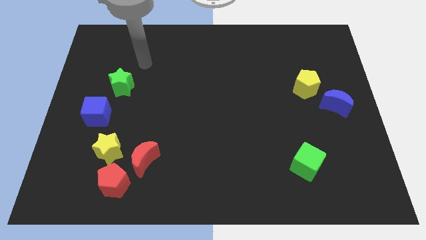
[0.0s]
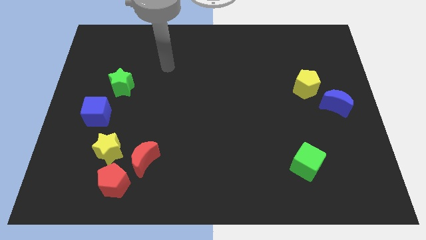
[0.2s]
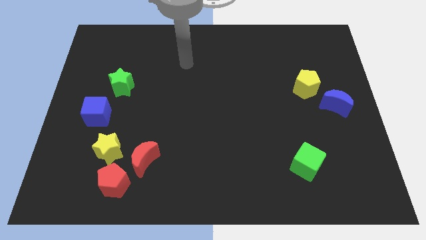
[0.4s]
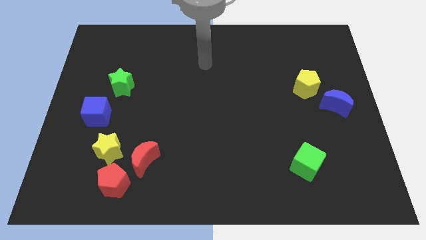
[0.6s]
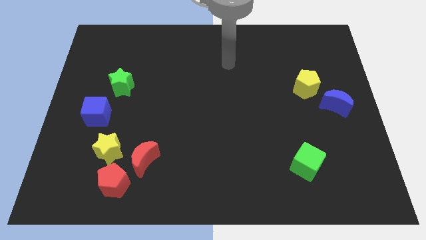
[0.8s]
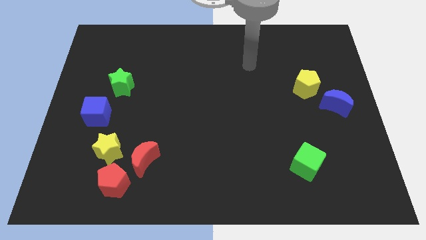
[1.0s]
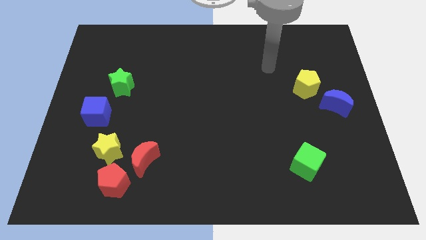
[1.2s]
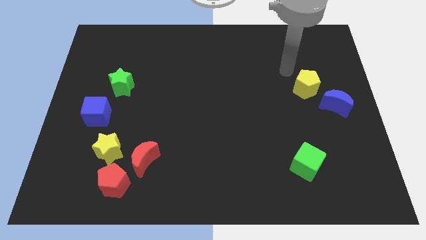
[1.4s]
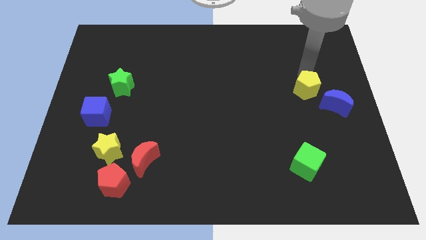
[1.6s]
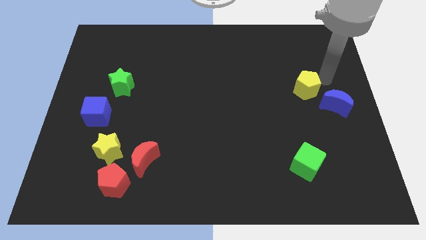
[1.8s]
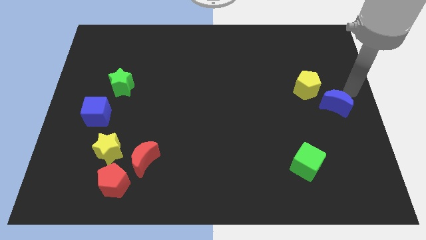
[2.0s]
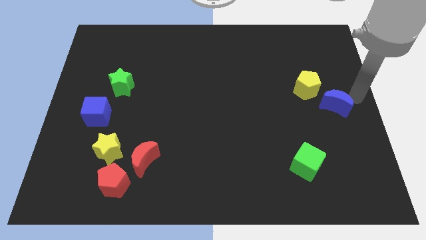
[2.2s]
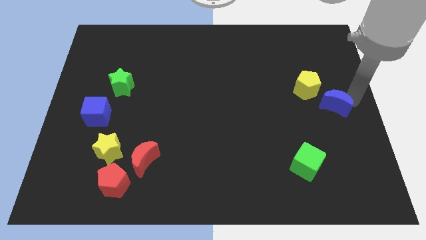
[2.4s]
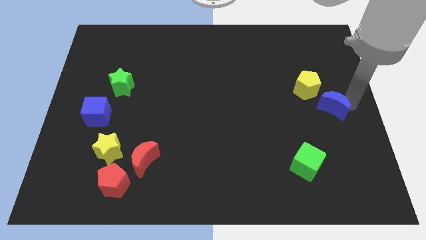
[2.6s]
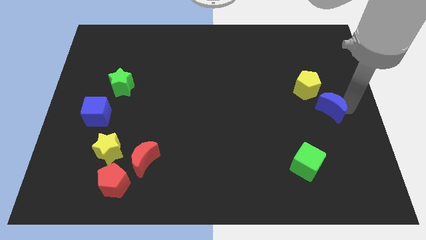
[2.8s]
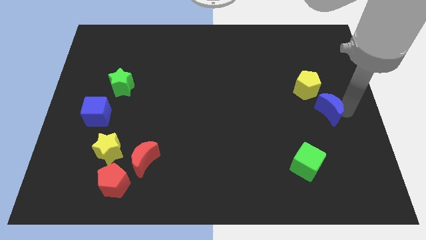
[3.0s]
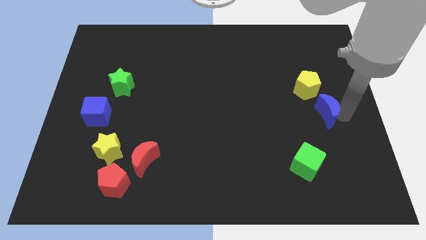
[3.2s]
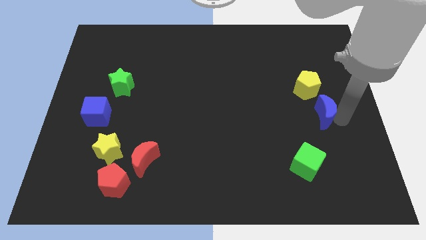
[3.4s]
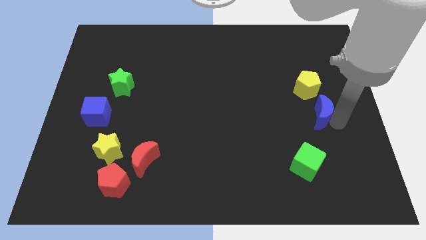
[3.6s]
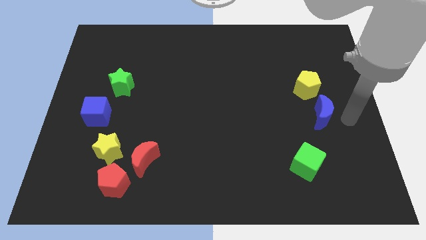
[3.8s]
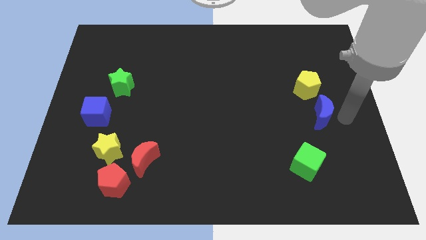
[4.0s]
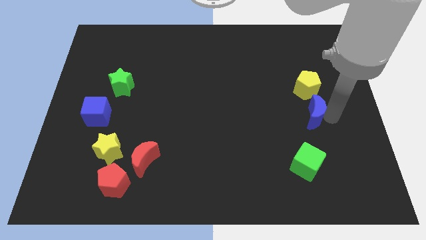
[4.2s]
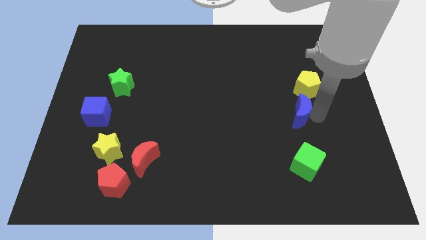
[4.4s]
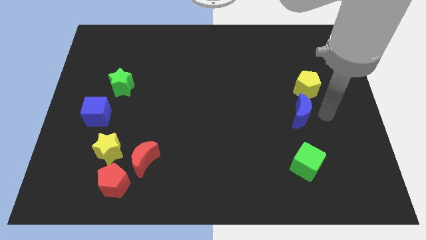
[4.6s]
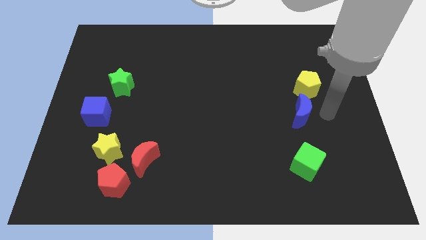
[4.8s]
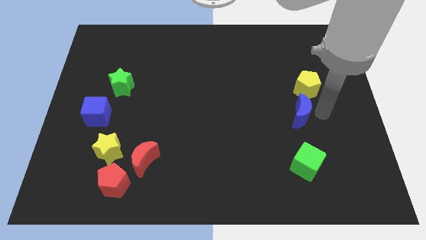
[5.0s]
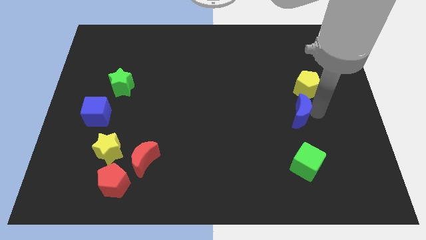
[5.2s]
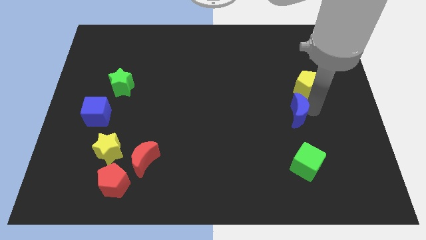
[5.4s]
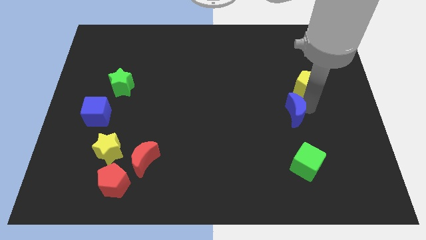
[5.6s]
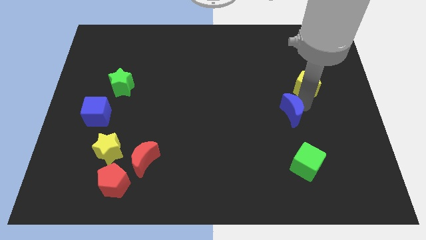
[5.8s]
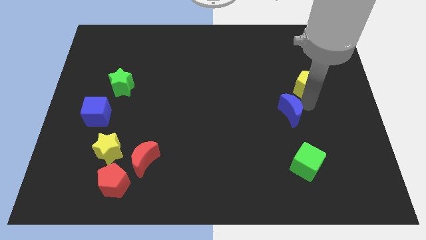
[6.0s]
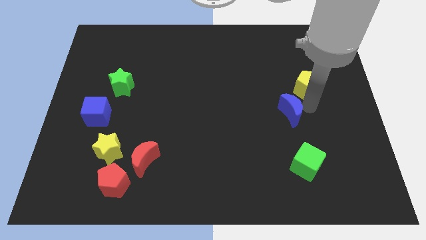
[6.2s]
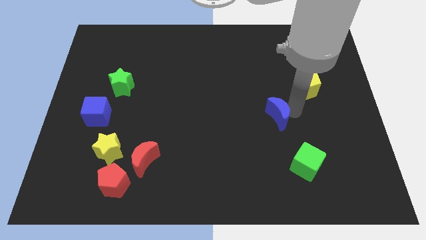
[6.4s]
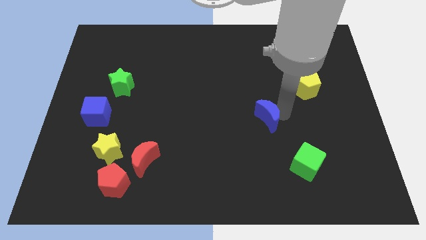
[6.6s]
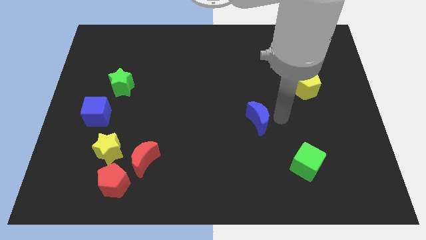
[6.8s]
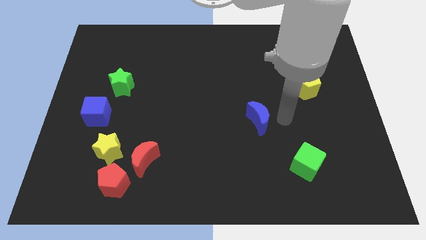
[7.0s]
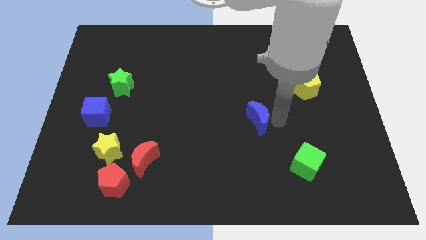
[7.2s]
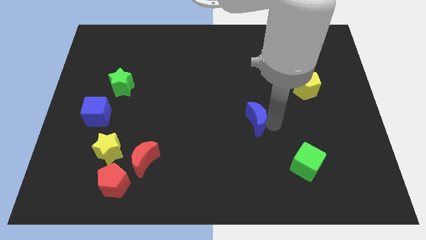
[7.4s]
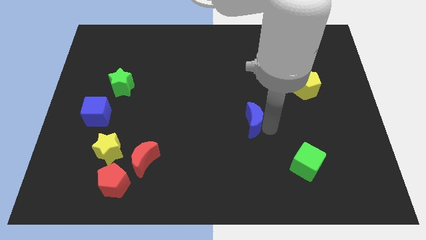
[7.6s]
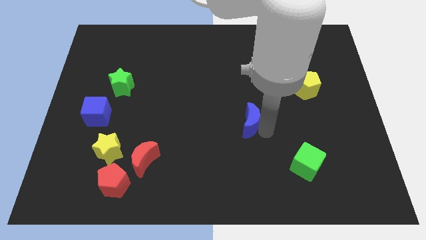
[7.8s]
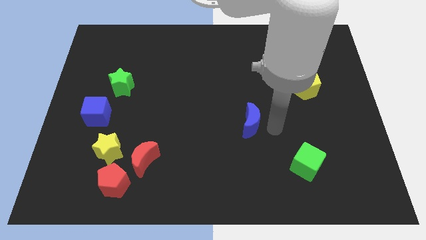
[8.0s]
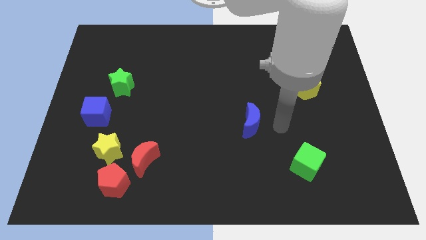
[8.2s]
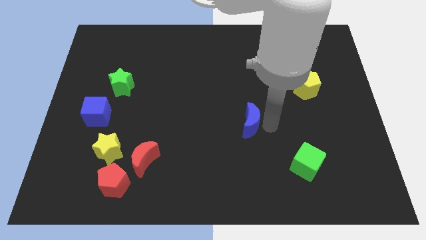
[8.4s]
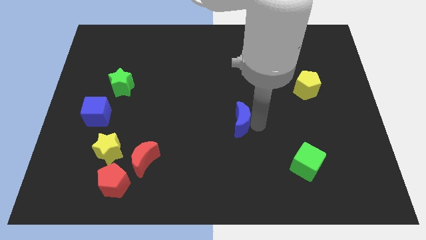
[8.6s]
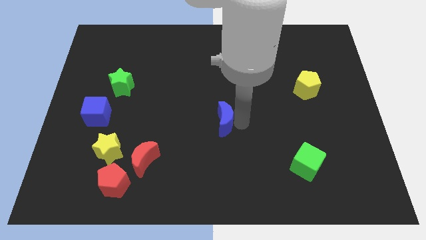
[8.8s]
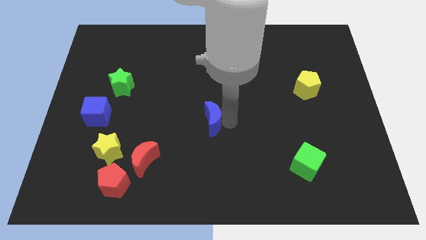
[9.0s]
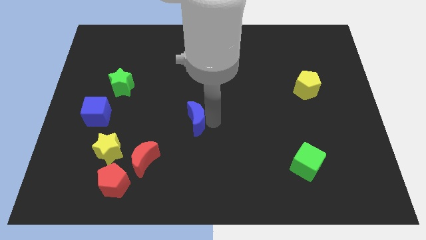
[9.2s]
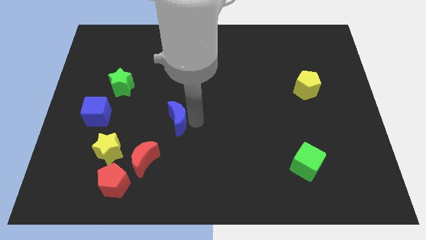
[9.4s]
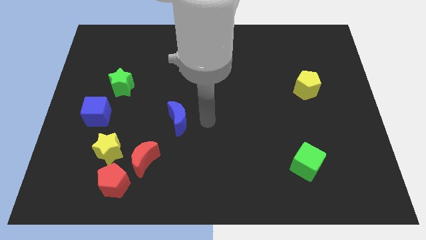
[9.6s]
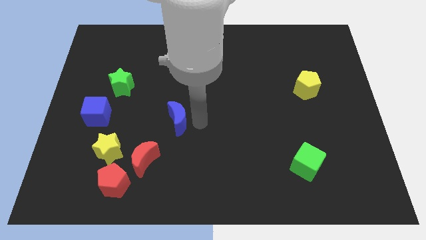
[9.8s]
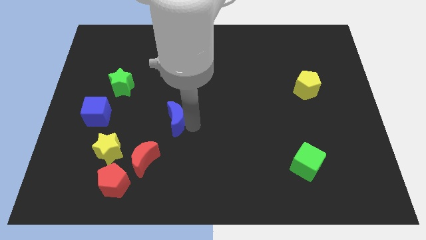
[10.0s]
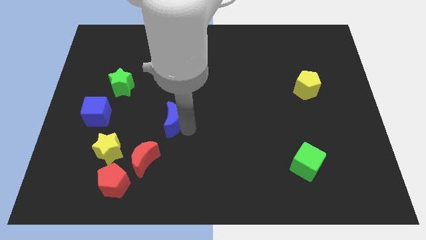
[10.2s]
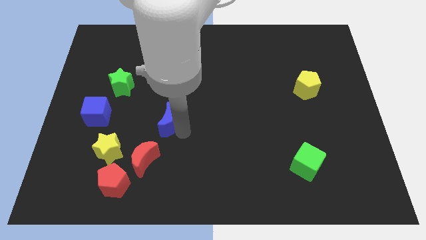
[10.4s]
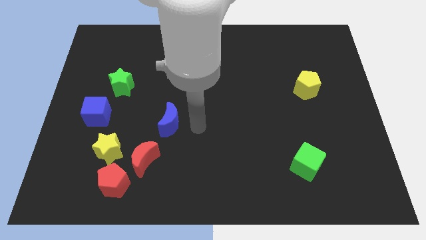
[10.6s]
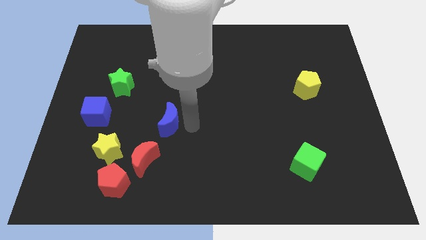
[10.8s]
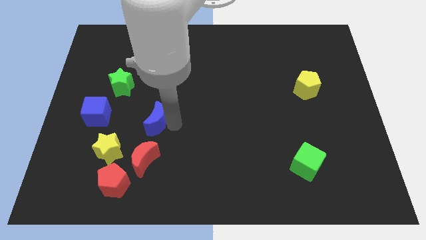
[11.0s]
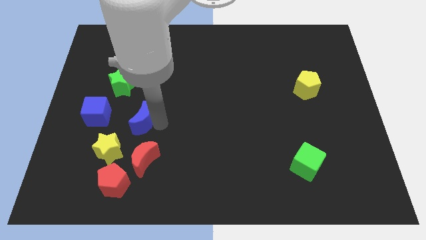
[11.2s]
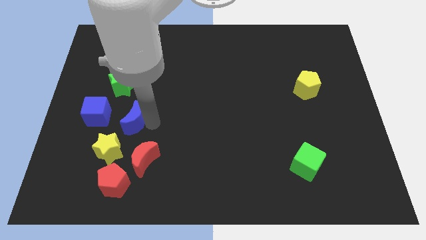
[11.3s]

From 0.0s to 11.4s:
put the blue moon to the bottom of the green star

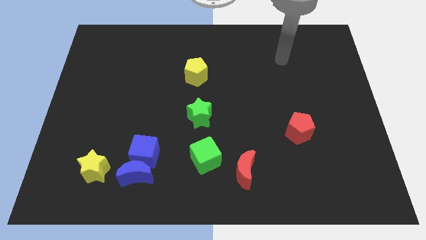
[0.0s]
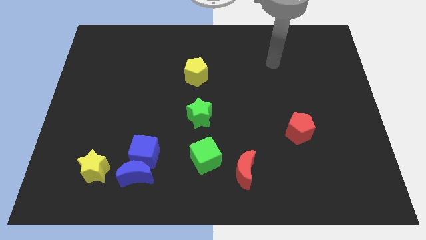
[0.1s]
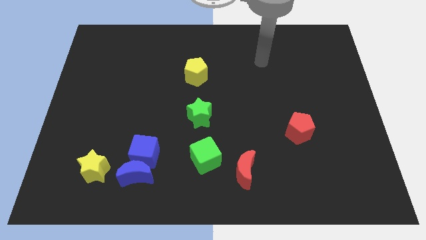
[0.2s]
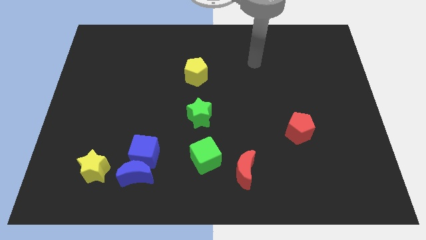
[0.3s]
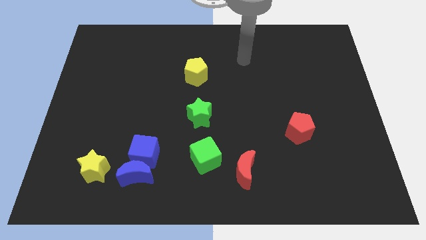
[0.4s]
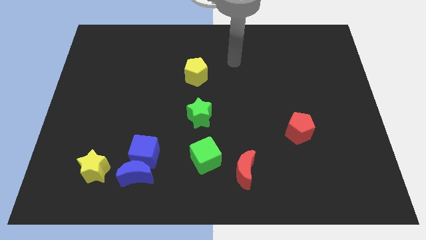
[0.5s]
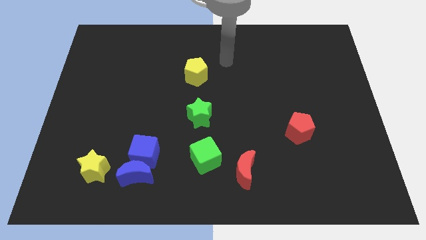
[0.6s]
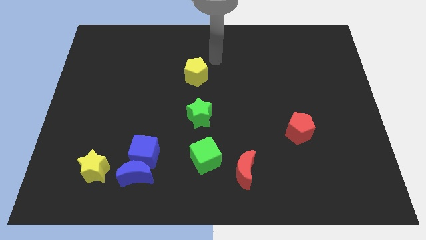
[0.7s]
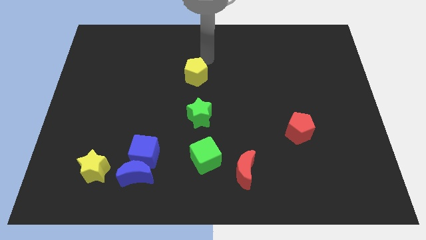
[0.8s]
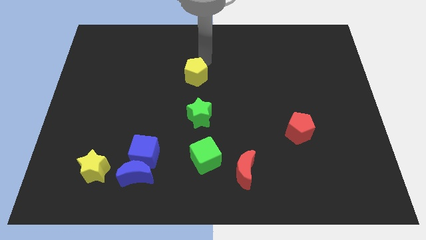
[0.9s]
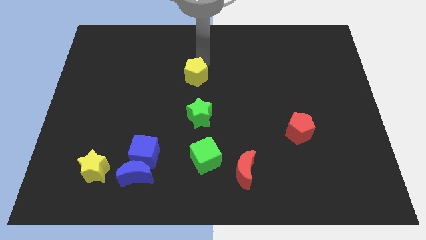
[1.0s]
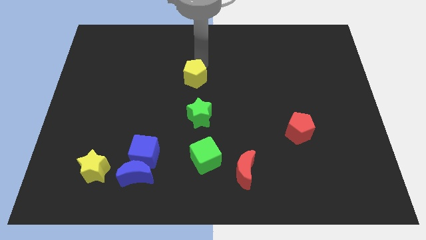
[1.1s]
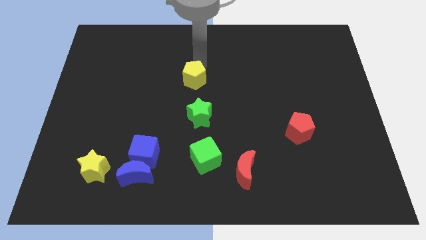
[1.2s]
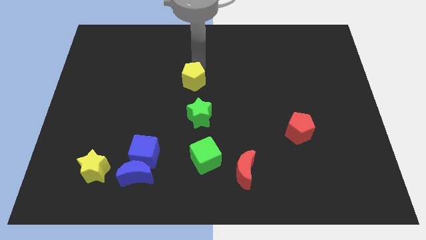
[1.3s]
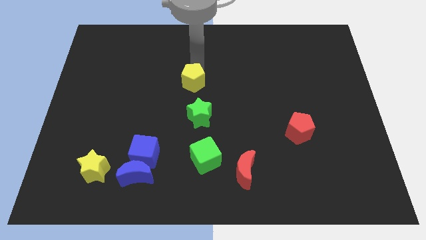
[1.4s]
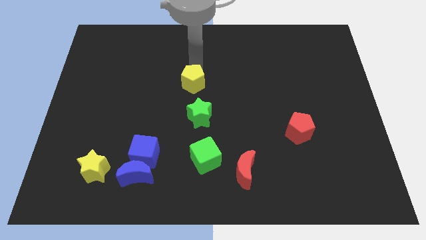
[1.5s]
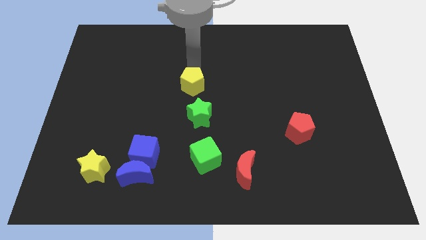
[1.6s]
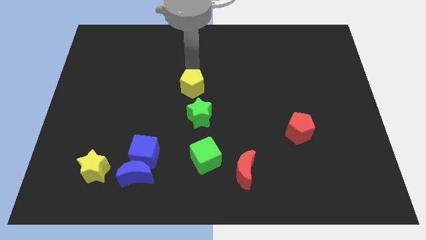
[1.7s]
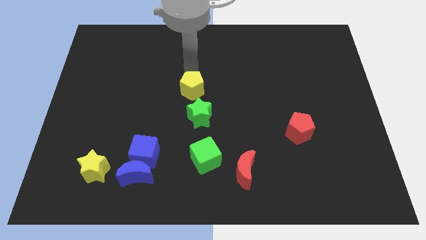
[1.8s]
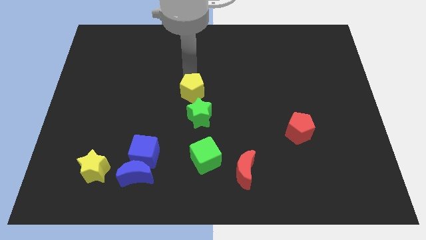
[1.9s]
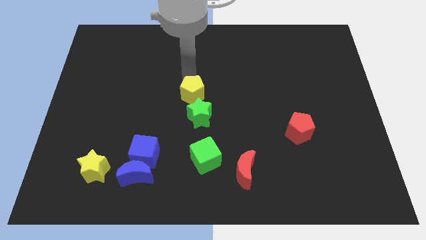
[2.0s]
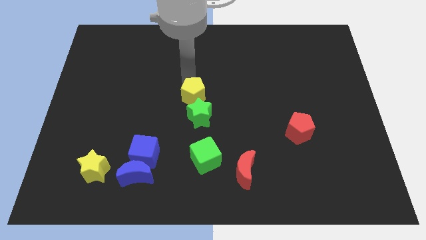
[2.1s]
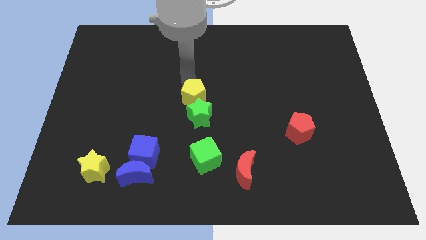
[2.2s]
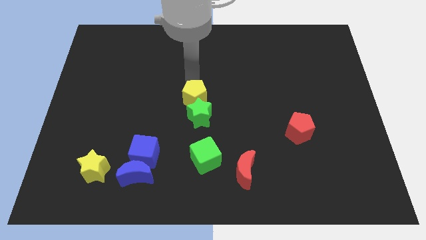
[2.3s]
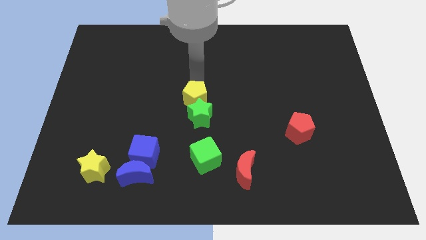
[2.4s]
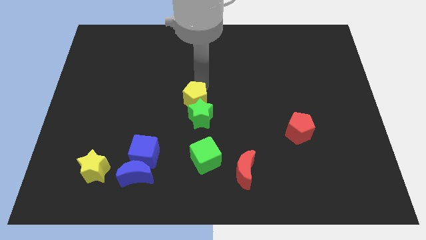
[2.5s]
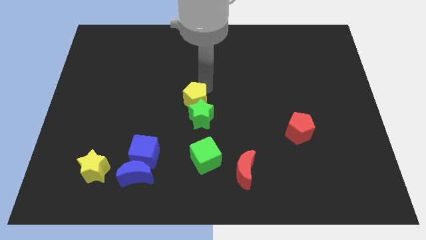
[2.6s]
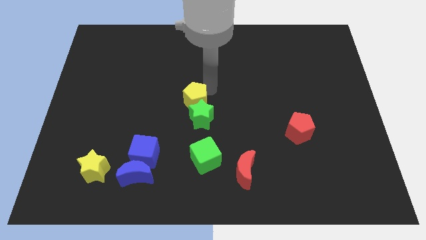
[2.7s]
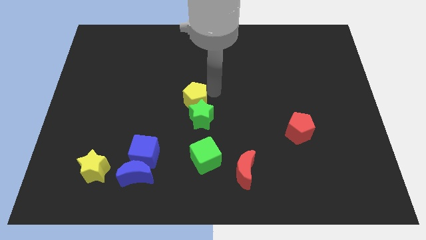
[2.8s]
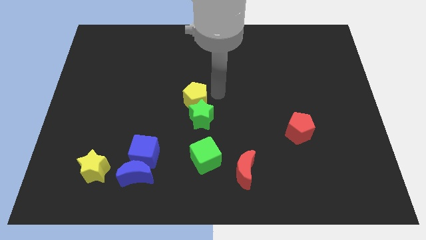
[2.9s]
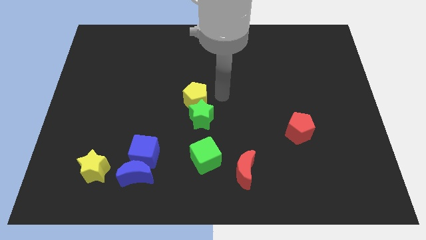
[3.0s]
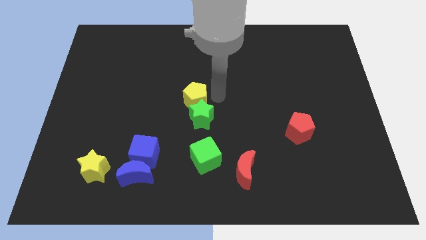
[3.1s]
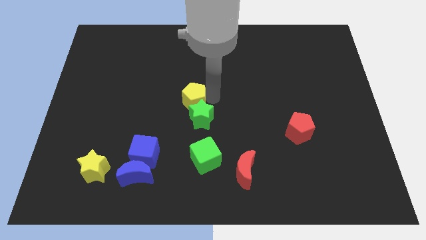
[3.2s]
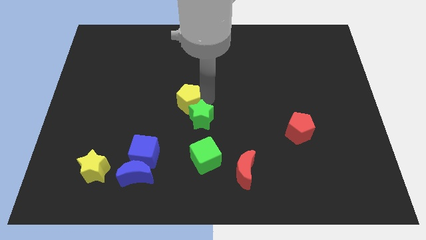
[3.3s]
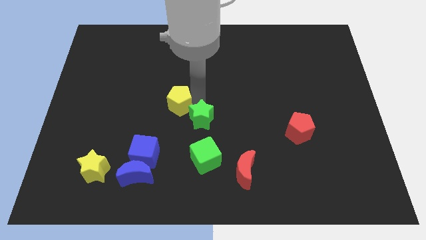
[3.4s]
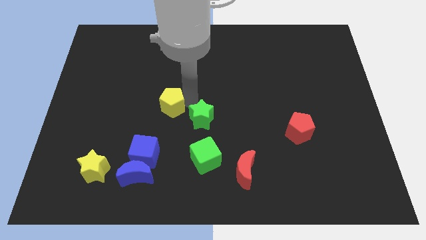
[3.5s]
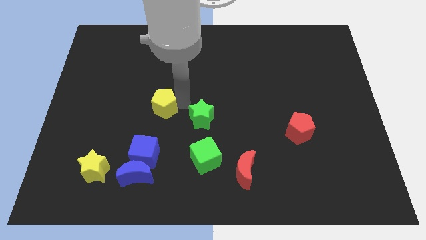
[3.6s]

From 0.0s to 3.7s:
slide the yellow pentagon to the top of the blue cube
